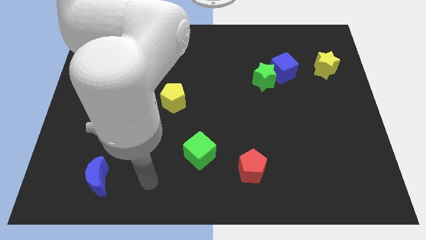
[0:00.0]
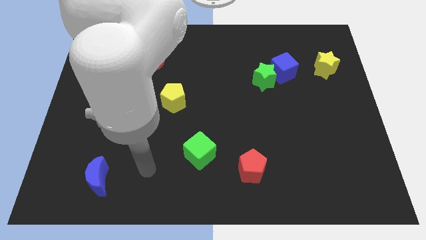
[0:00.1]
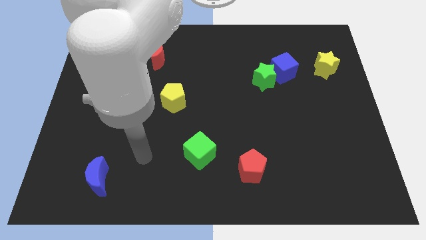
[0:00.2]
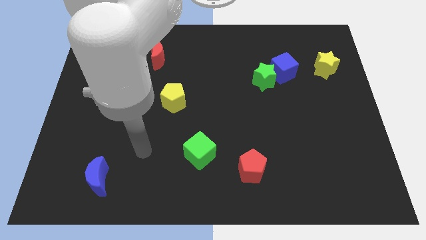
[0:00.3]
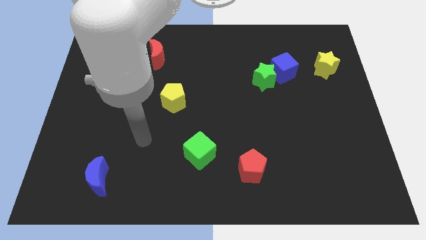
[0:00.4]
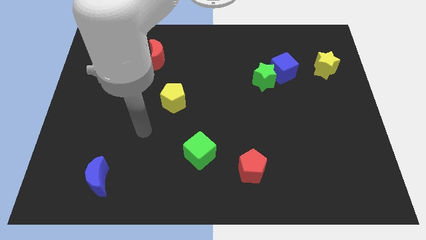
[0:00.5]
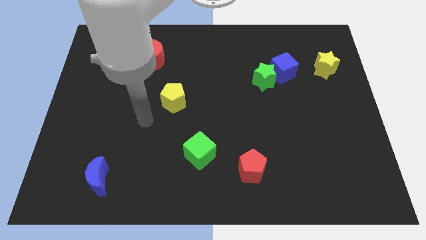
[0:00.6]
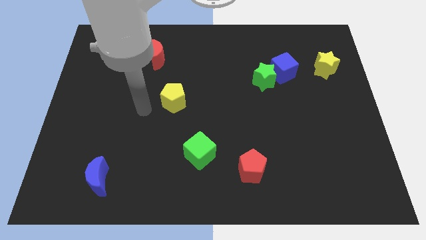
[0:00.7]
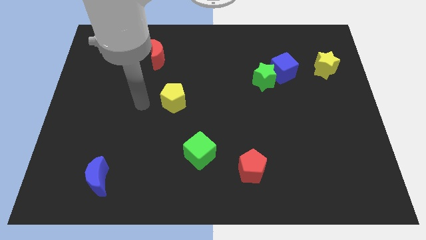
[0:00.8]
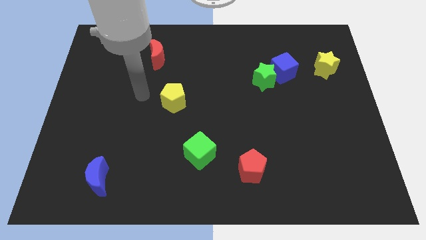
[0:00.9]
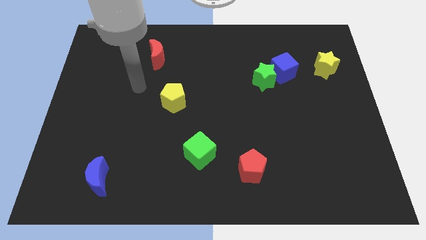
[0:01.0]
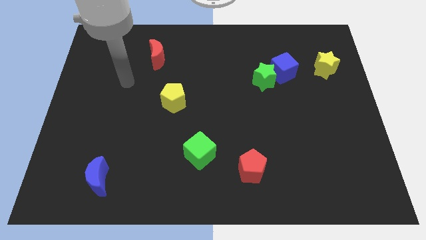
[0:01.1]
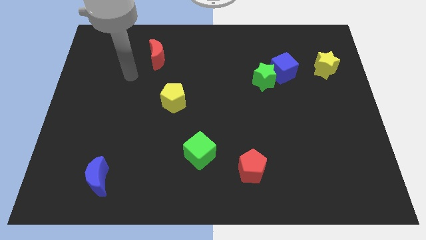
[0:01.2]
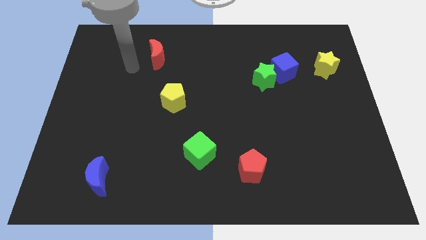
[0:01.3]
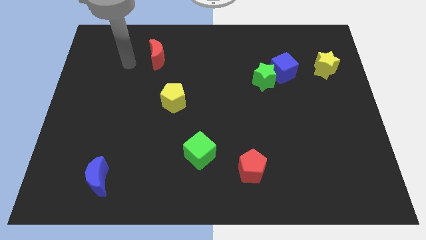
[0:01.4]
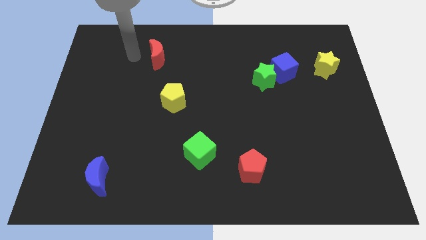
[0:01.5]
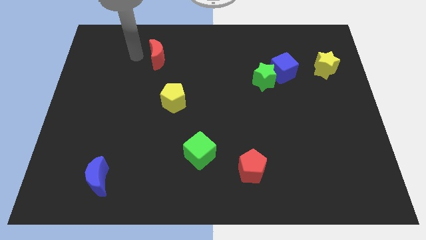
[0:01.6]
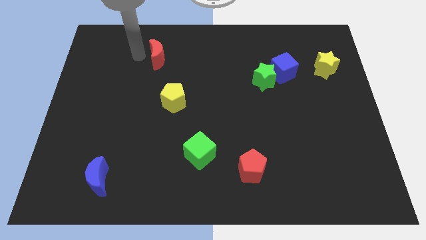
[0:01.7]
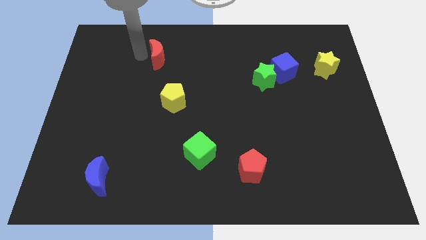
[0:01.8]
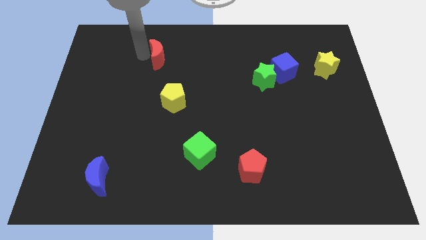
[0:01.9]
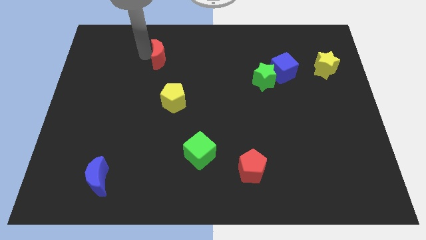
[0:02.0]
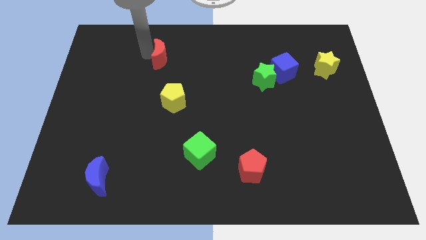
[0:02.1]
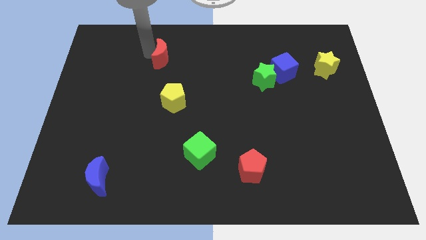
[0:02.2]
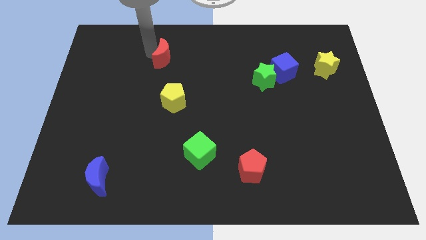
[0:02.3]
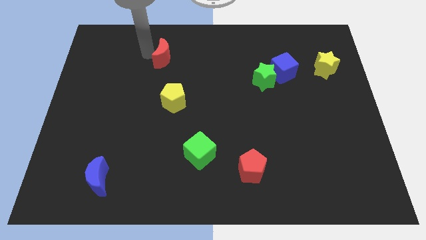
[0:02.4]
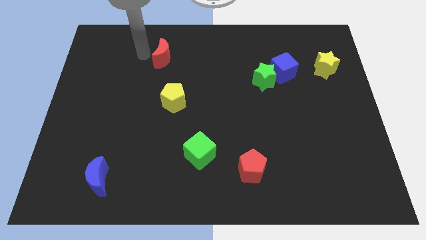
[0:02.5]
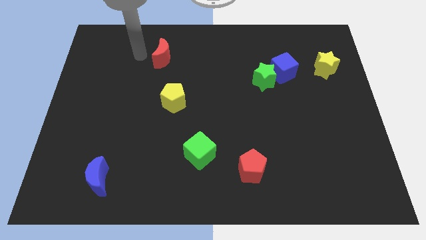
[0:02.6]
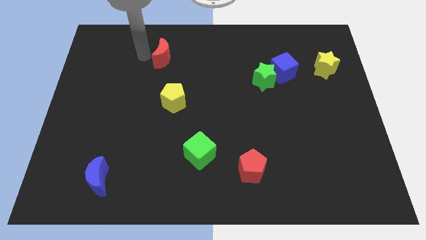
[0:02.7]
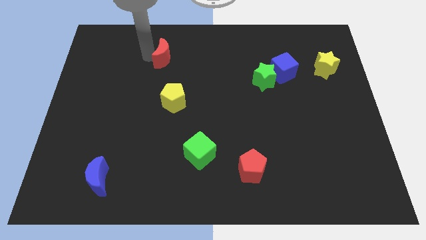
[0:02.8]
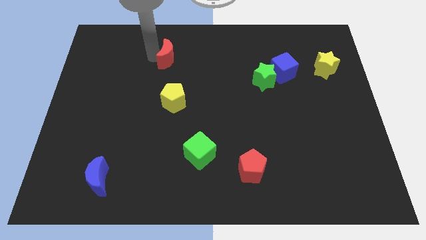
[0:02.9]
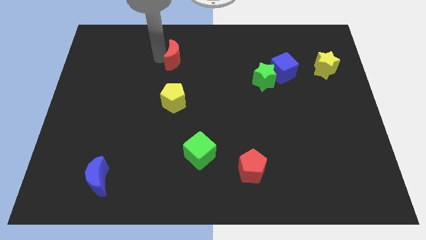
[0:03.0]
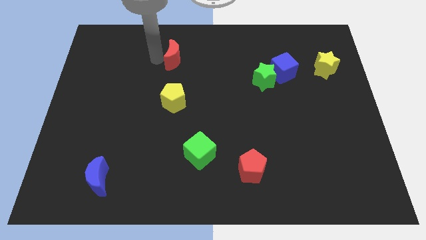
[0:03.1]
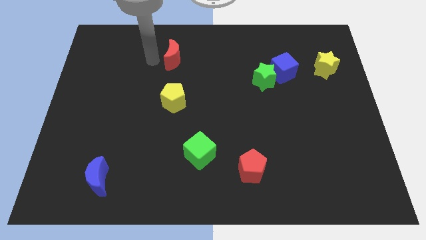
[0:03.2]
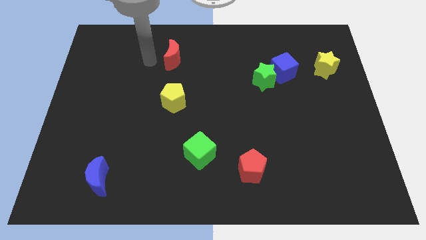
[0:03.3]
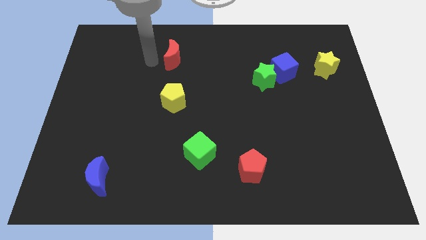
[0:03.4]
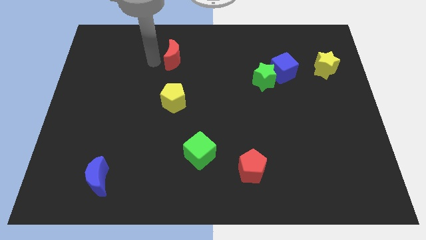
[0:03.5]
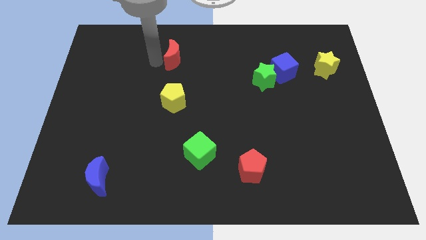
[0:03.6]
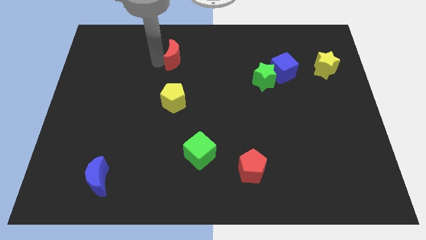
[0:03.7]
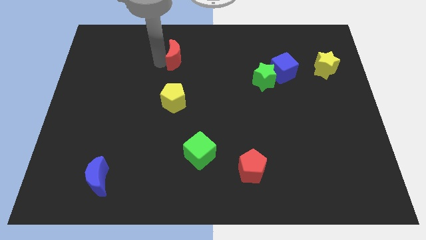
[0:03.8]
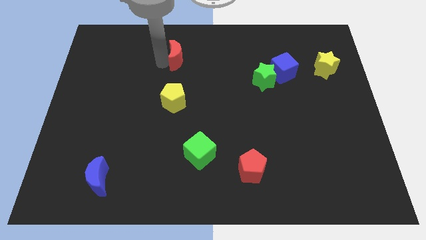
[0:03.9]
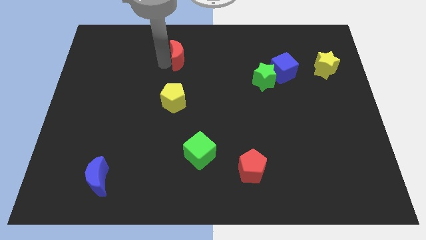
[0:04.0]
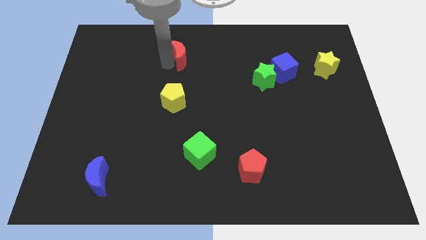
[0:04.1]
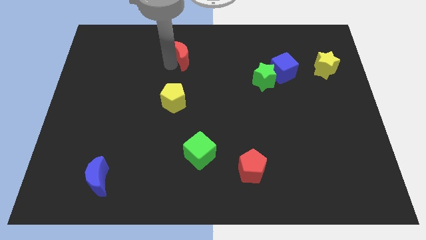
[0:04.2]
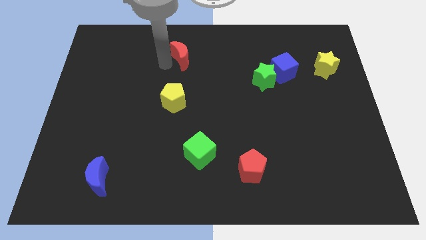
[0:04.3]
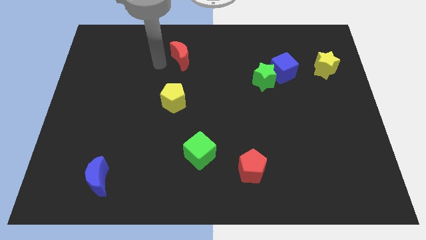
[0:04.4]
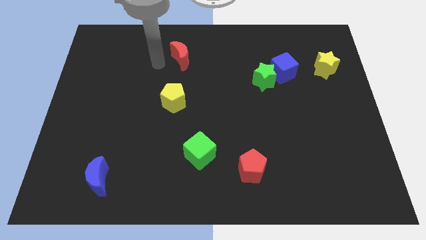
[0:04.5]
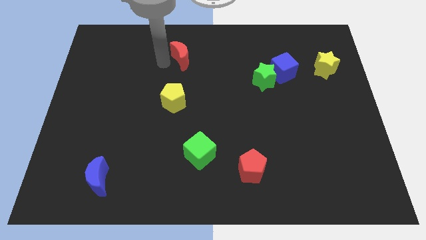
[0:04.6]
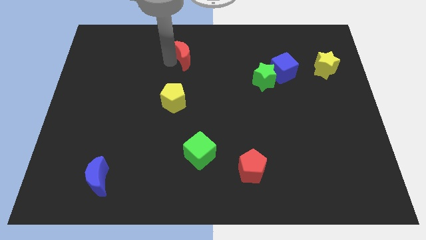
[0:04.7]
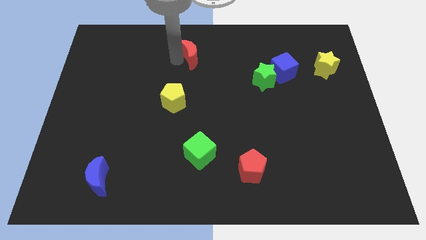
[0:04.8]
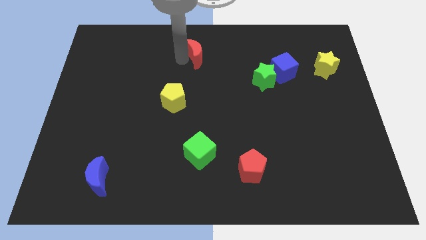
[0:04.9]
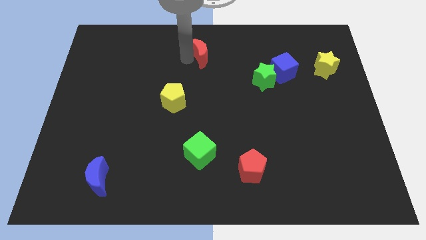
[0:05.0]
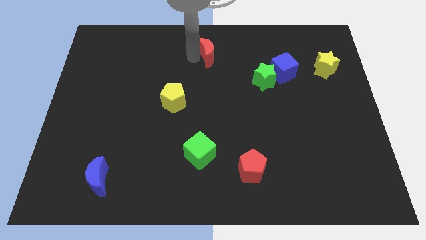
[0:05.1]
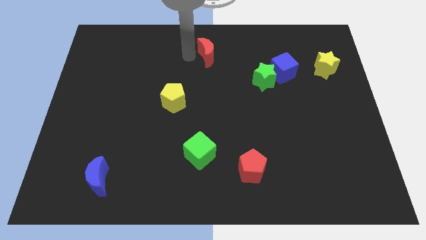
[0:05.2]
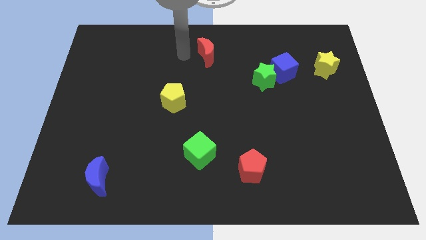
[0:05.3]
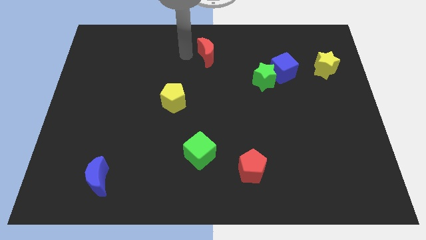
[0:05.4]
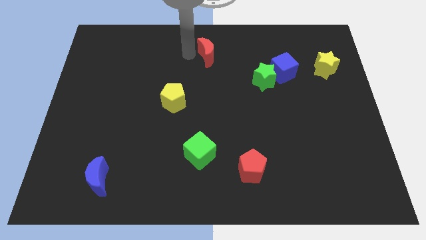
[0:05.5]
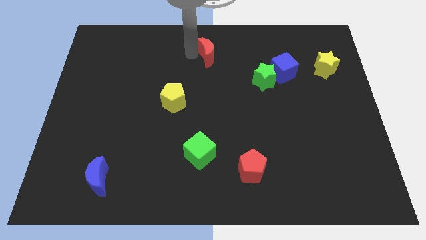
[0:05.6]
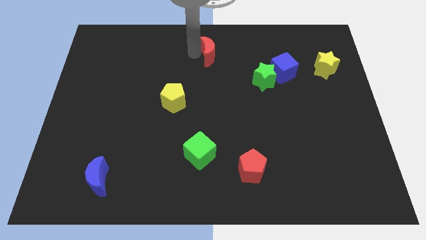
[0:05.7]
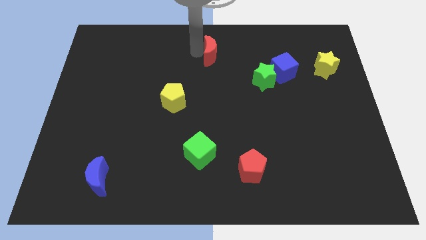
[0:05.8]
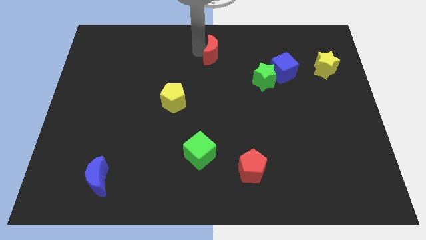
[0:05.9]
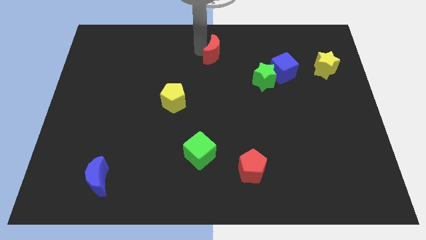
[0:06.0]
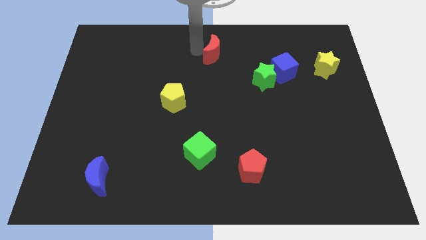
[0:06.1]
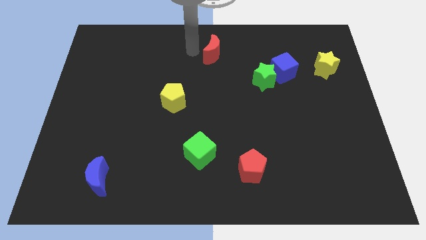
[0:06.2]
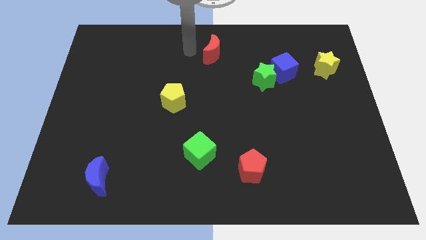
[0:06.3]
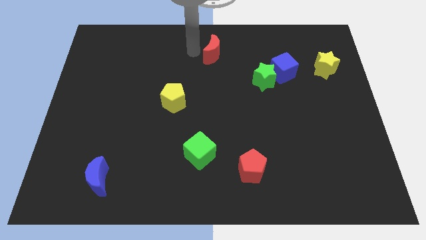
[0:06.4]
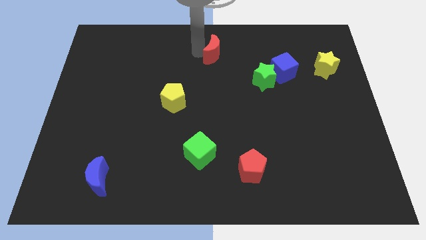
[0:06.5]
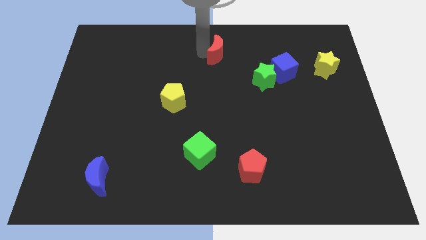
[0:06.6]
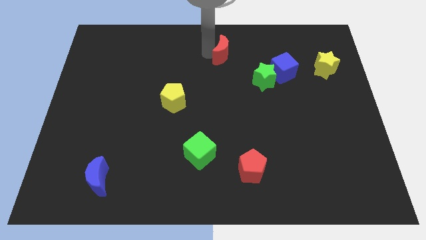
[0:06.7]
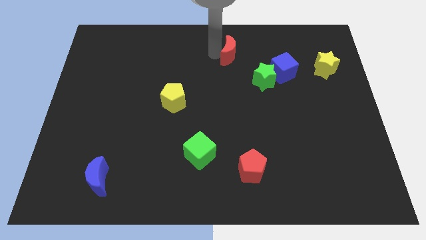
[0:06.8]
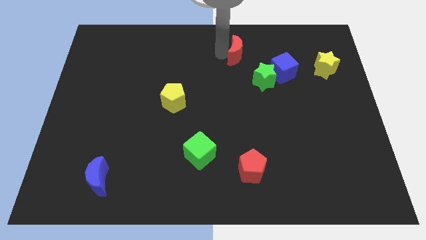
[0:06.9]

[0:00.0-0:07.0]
move the red moon right

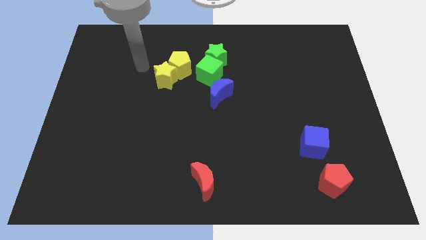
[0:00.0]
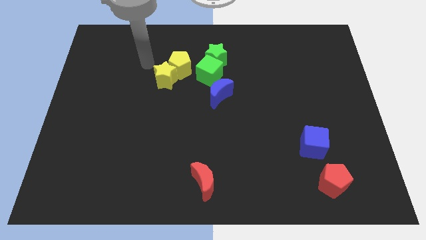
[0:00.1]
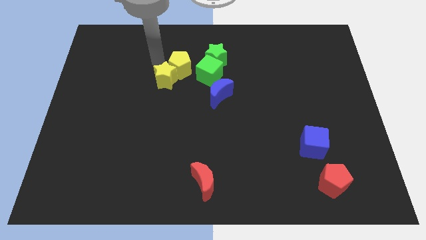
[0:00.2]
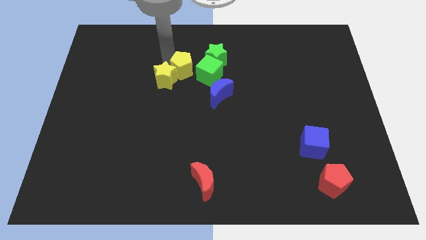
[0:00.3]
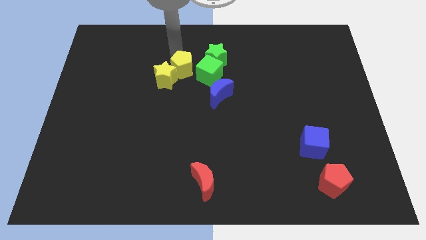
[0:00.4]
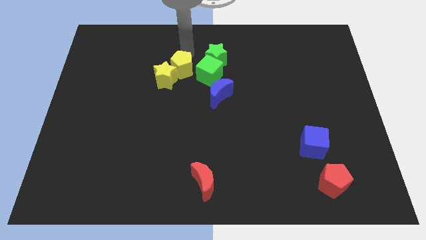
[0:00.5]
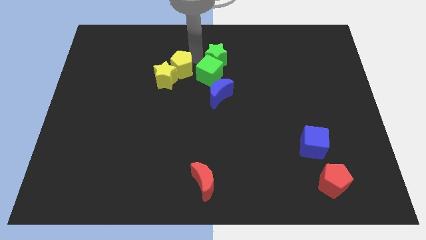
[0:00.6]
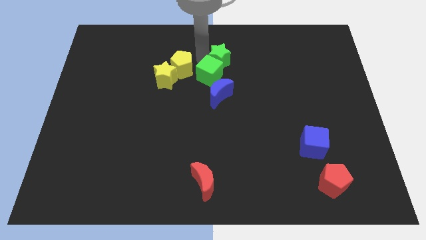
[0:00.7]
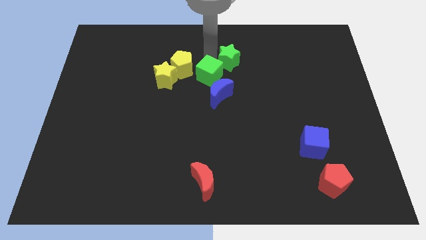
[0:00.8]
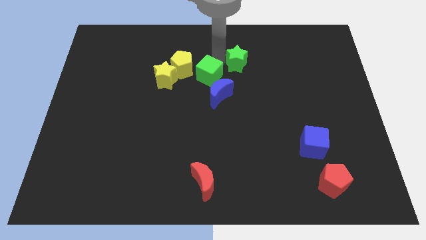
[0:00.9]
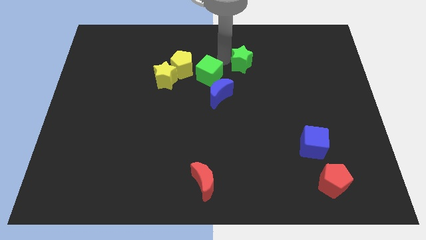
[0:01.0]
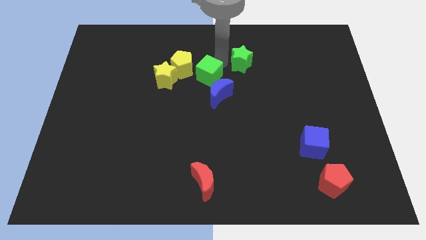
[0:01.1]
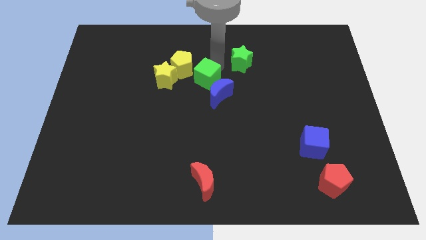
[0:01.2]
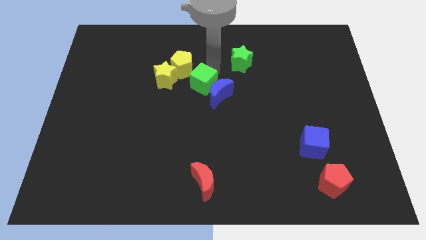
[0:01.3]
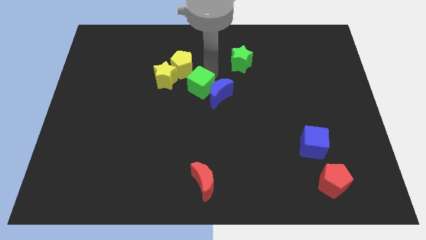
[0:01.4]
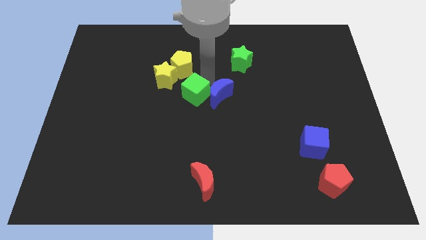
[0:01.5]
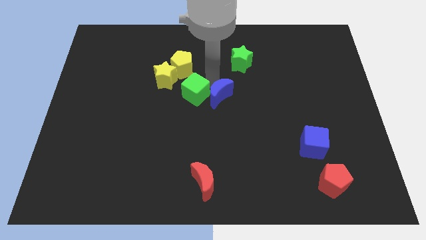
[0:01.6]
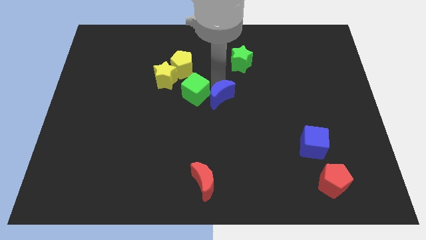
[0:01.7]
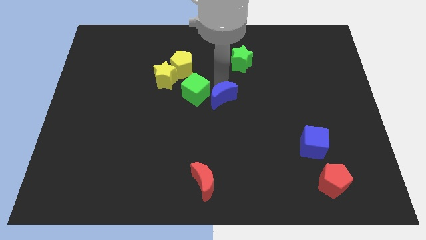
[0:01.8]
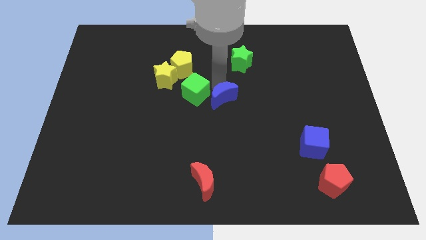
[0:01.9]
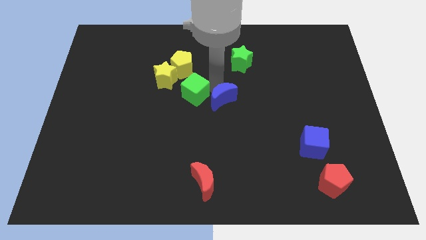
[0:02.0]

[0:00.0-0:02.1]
slightly push the green cube downwards and left
